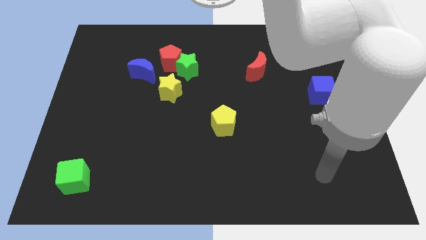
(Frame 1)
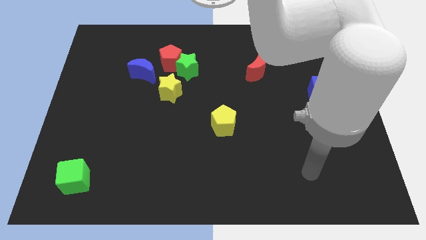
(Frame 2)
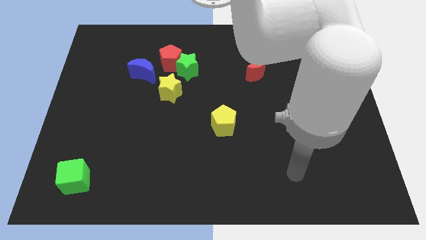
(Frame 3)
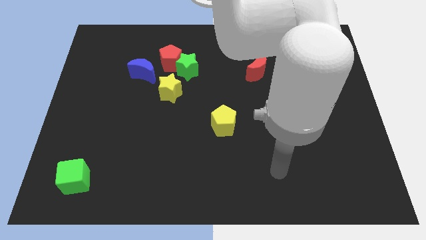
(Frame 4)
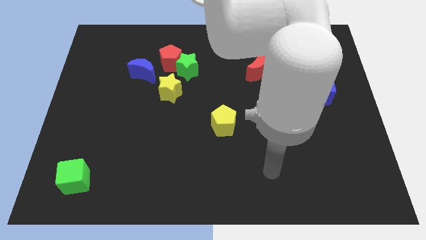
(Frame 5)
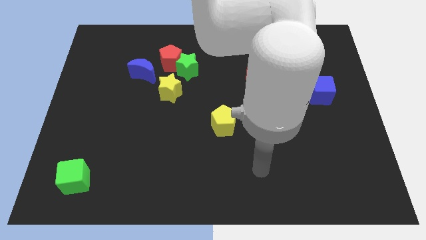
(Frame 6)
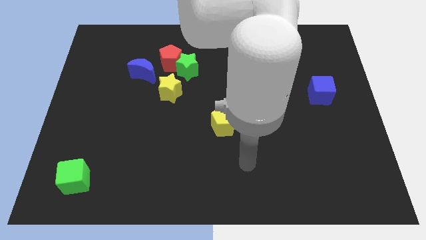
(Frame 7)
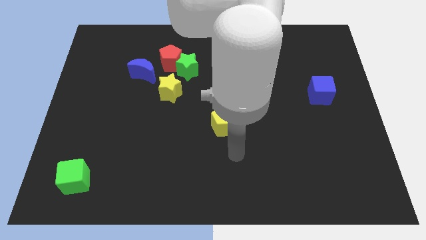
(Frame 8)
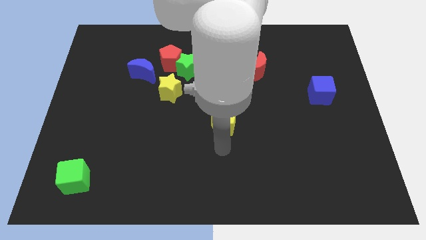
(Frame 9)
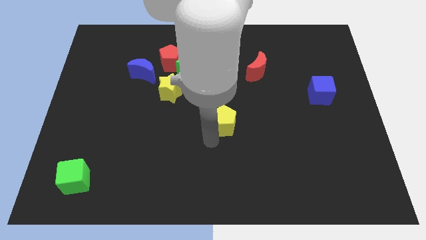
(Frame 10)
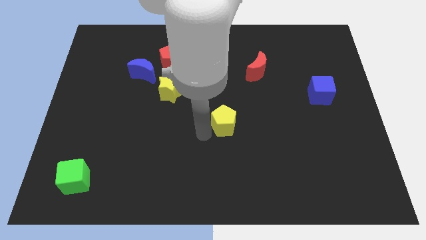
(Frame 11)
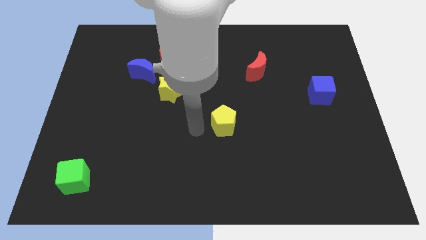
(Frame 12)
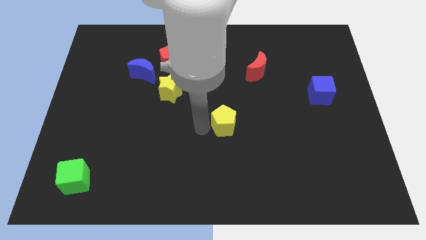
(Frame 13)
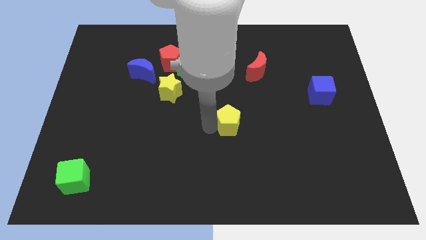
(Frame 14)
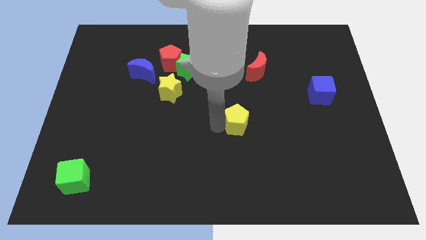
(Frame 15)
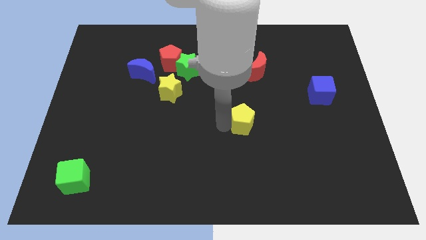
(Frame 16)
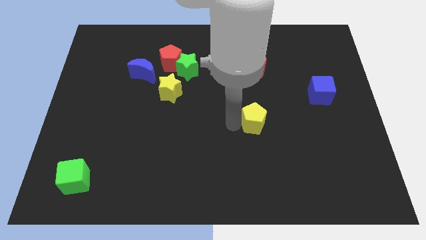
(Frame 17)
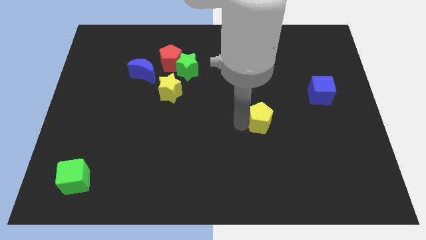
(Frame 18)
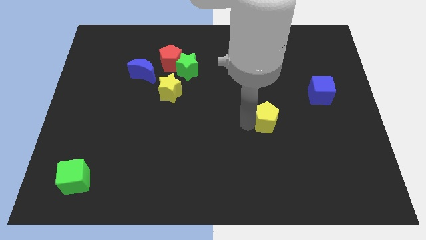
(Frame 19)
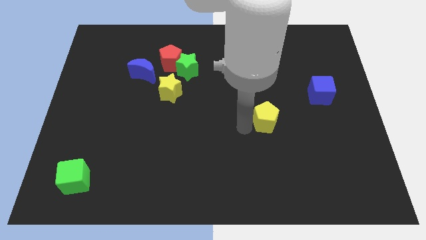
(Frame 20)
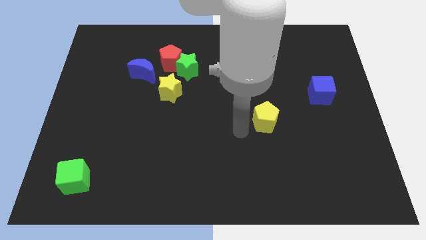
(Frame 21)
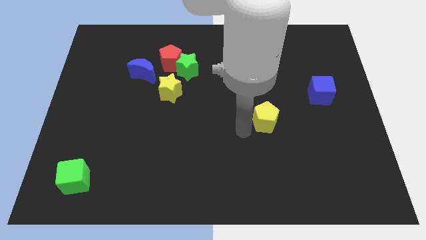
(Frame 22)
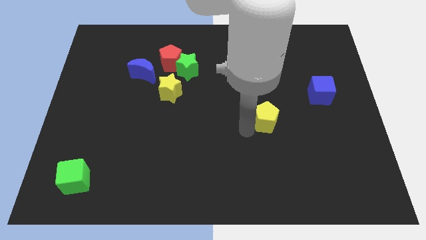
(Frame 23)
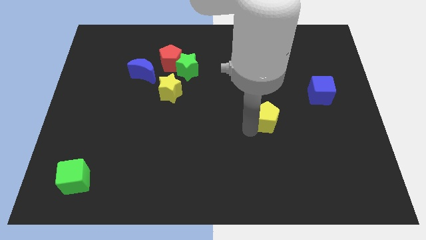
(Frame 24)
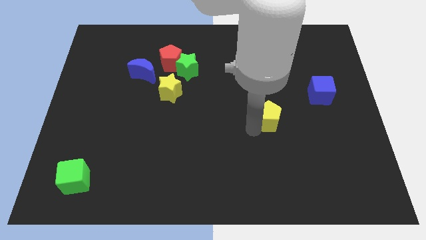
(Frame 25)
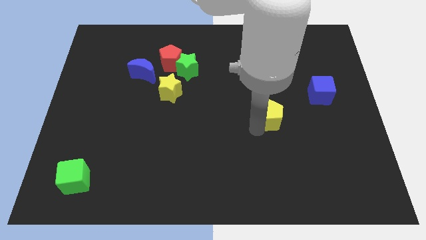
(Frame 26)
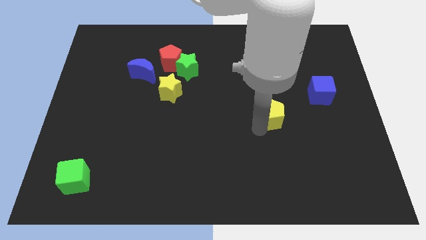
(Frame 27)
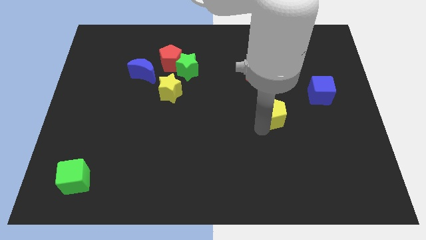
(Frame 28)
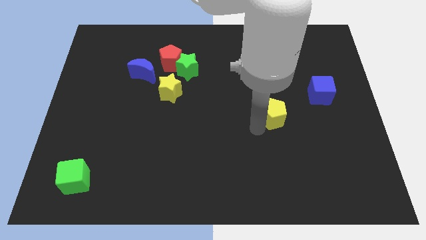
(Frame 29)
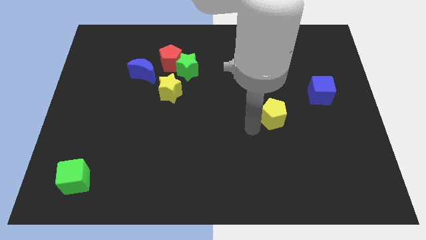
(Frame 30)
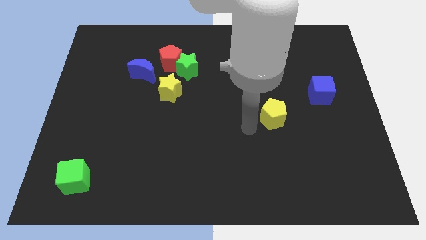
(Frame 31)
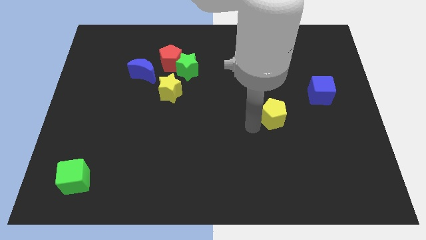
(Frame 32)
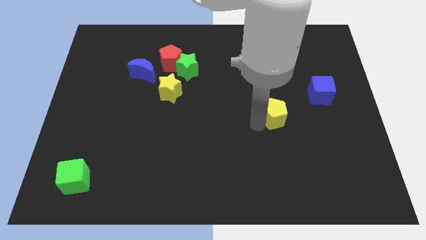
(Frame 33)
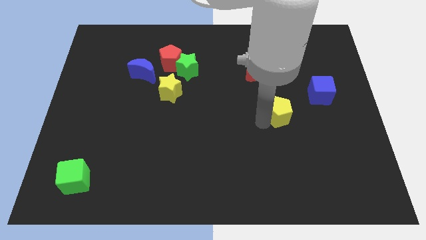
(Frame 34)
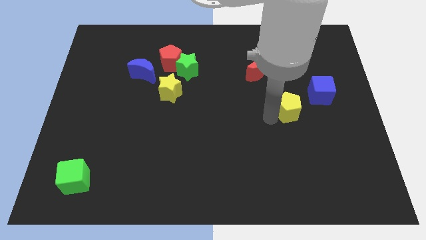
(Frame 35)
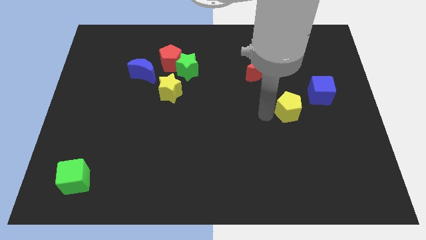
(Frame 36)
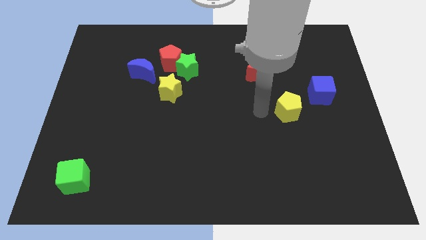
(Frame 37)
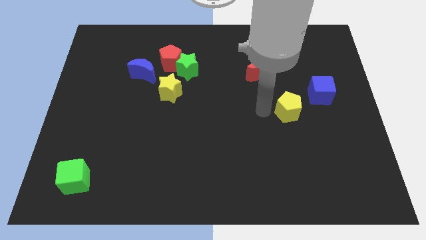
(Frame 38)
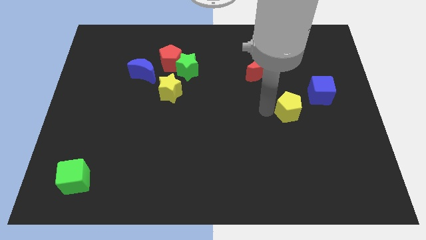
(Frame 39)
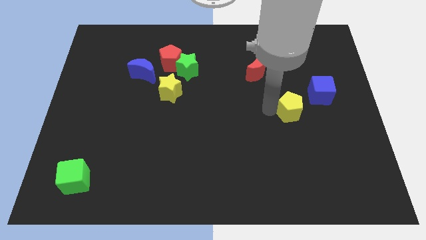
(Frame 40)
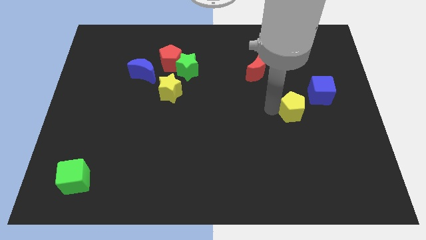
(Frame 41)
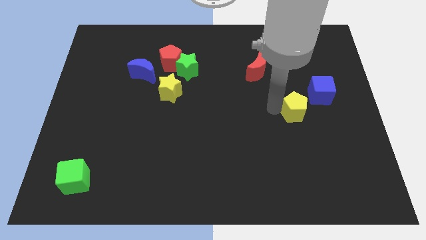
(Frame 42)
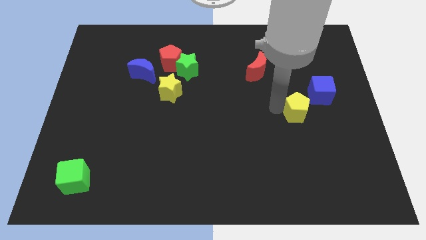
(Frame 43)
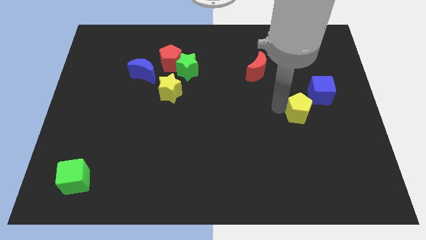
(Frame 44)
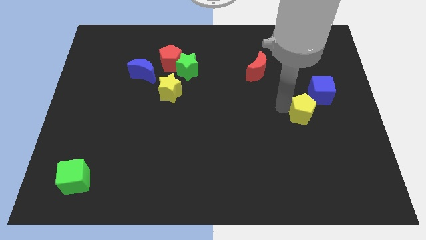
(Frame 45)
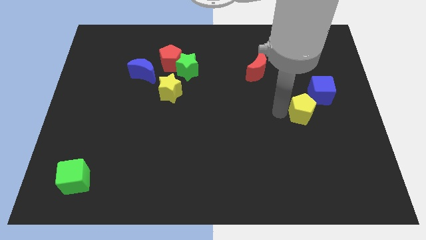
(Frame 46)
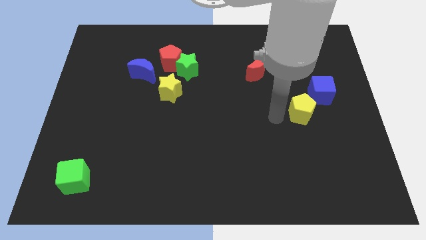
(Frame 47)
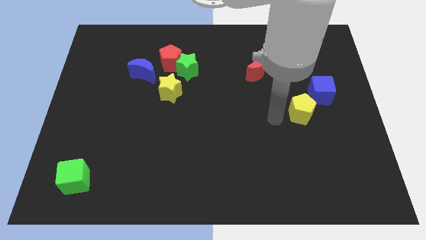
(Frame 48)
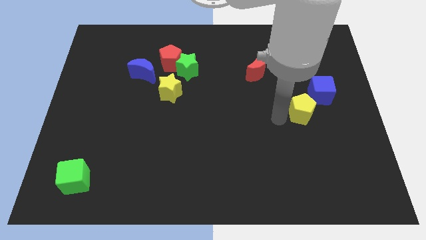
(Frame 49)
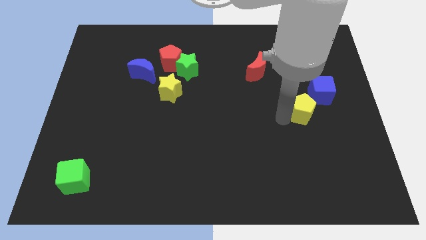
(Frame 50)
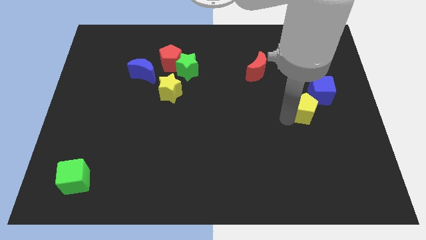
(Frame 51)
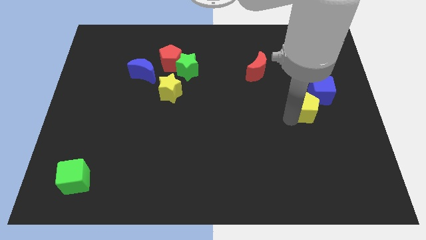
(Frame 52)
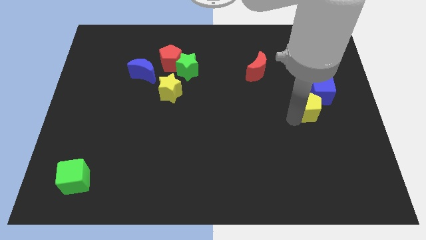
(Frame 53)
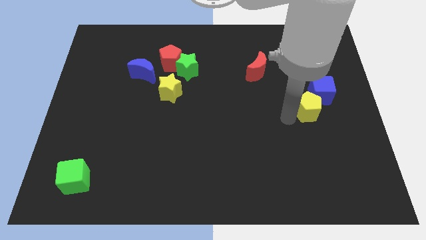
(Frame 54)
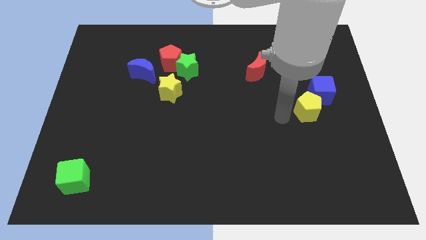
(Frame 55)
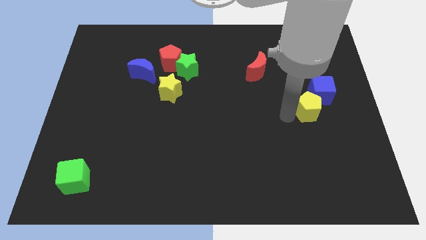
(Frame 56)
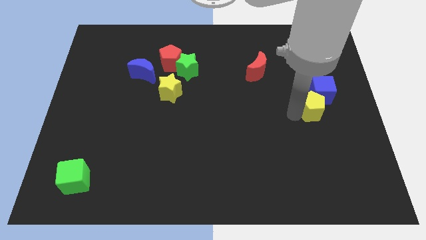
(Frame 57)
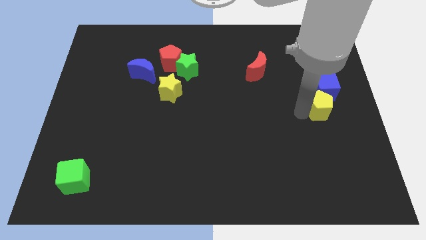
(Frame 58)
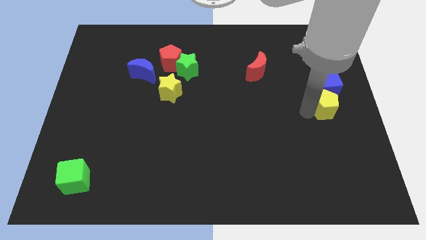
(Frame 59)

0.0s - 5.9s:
slide the yellow pentagon to the right side of the board
